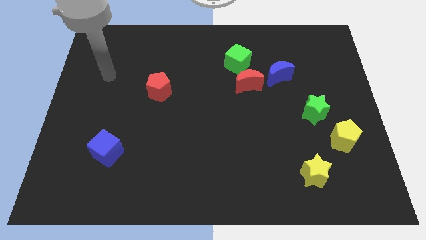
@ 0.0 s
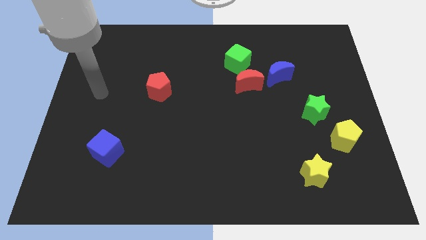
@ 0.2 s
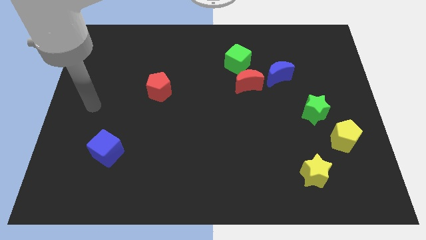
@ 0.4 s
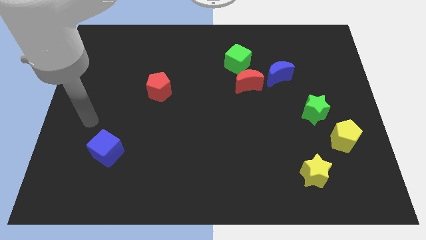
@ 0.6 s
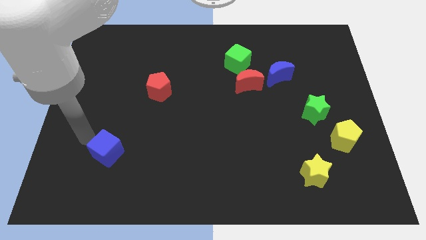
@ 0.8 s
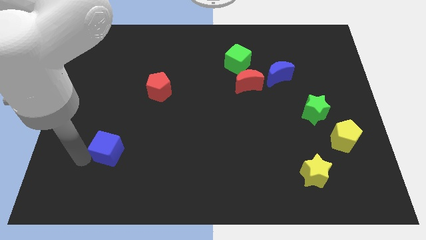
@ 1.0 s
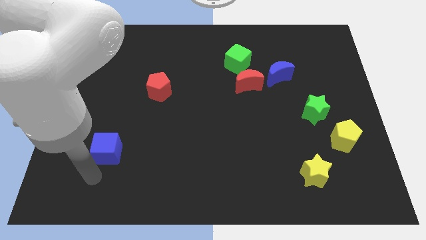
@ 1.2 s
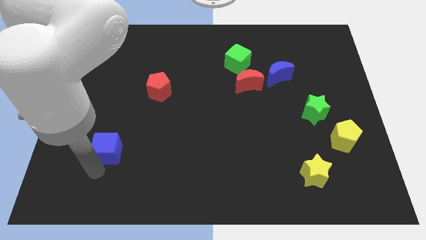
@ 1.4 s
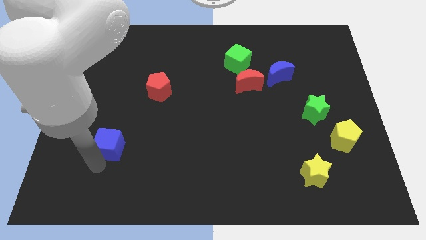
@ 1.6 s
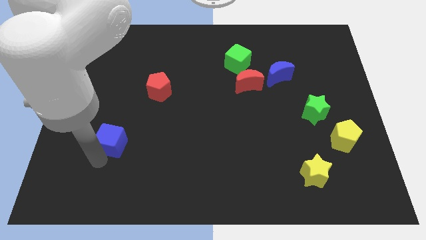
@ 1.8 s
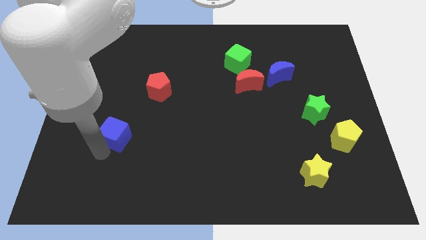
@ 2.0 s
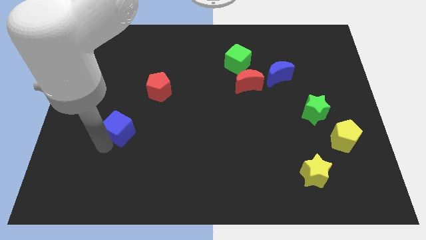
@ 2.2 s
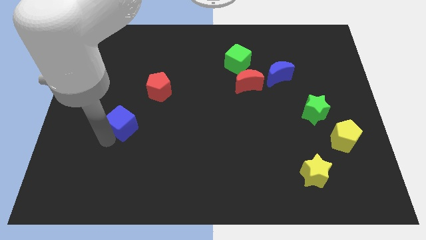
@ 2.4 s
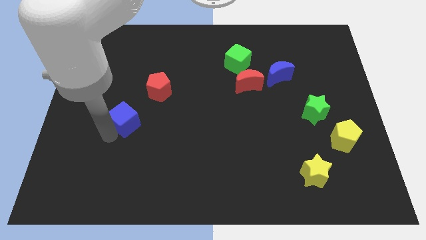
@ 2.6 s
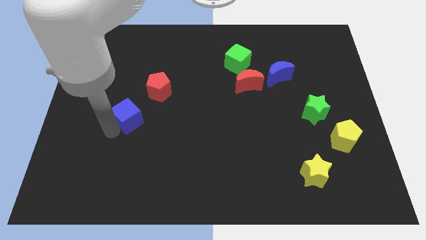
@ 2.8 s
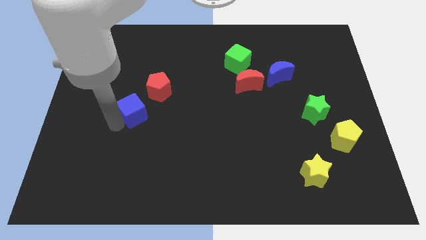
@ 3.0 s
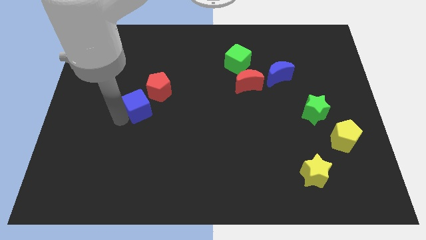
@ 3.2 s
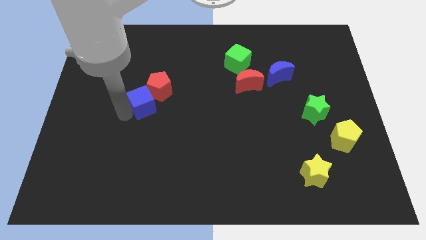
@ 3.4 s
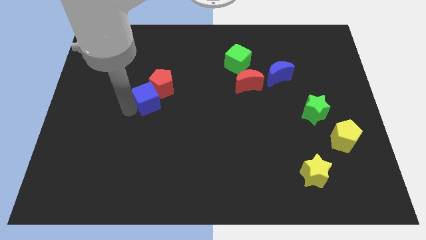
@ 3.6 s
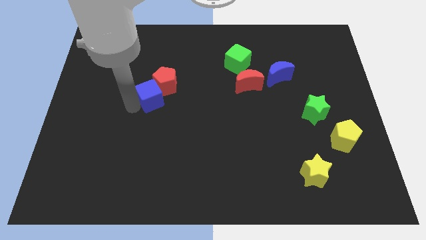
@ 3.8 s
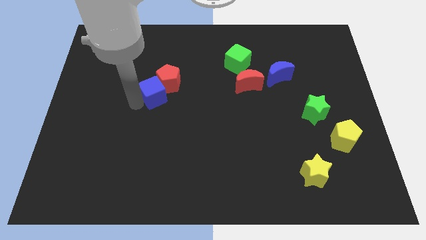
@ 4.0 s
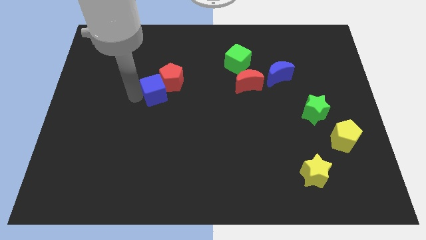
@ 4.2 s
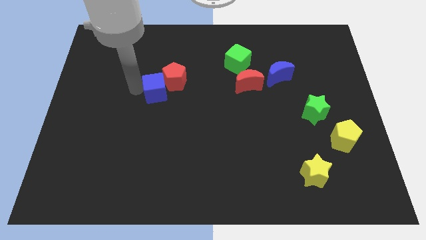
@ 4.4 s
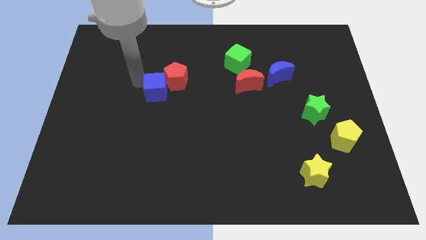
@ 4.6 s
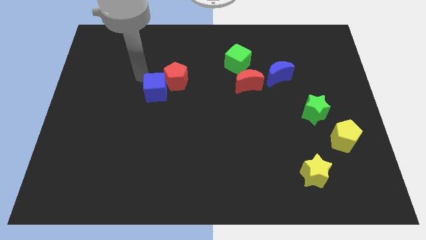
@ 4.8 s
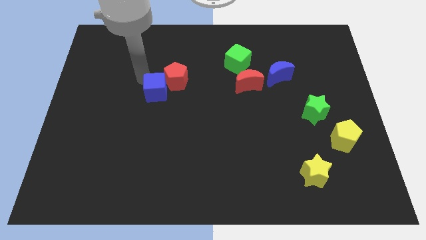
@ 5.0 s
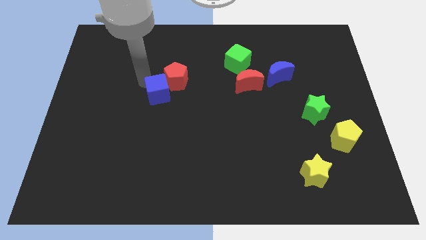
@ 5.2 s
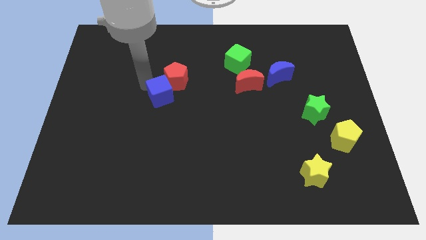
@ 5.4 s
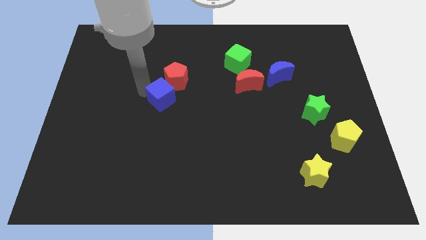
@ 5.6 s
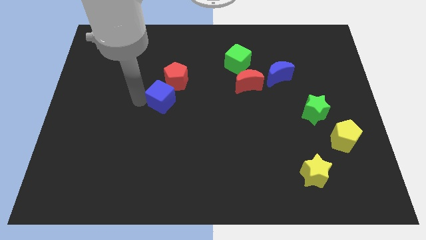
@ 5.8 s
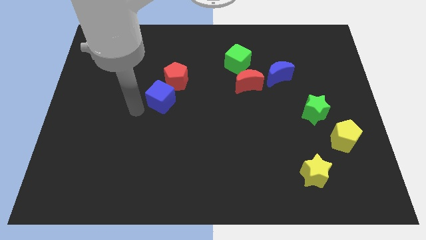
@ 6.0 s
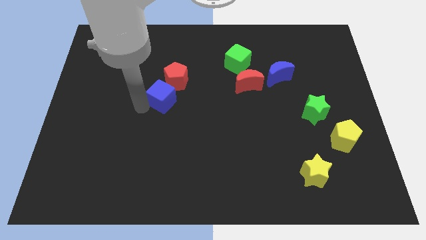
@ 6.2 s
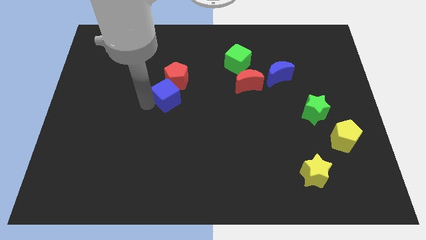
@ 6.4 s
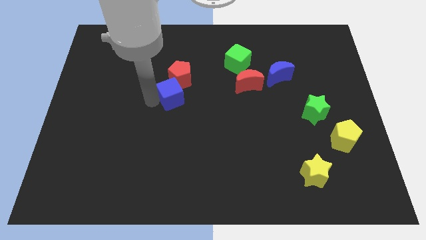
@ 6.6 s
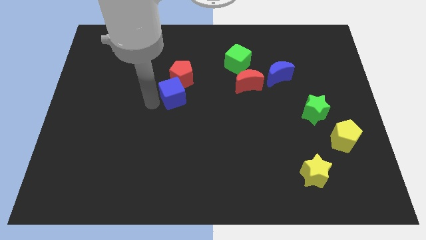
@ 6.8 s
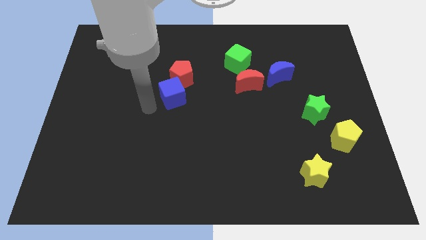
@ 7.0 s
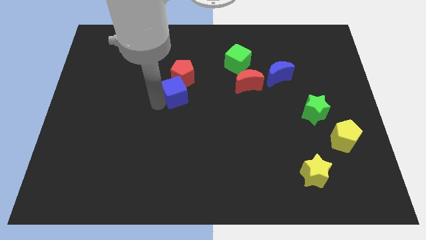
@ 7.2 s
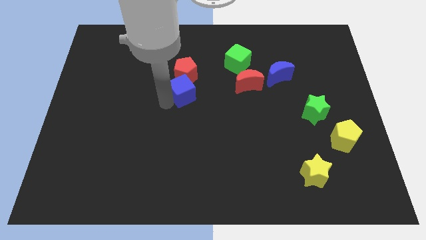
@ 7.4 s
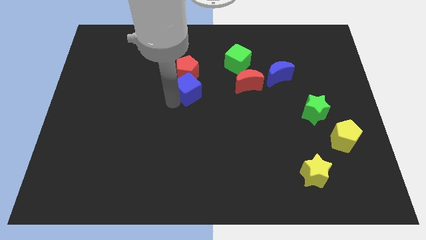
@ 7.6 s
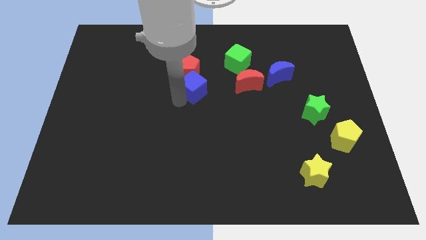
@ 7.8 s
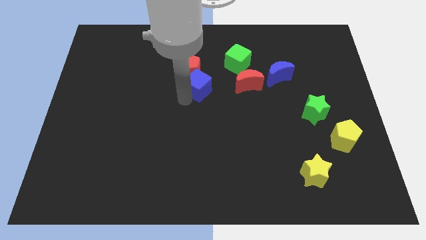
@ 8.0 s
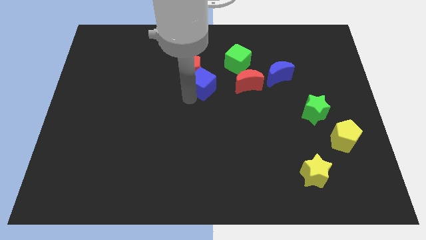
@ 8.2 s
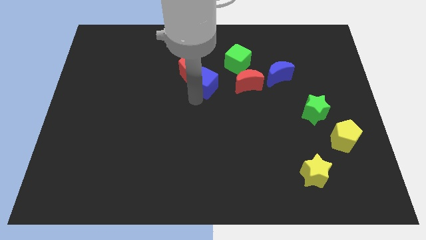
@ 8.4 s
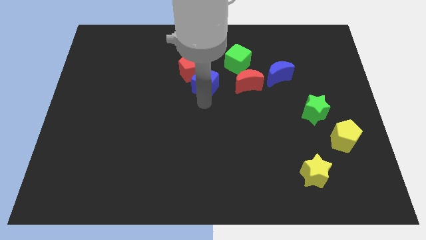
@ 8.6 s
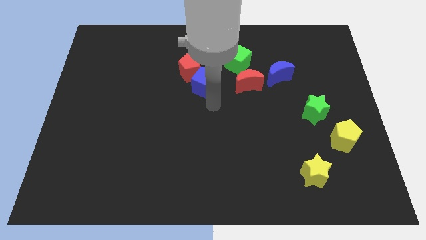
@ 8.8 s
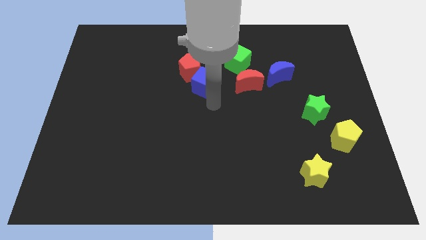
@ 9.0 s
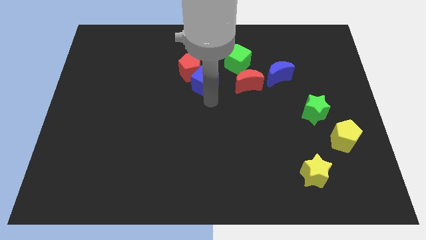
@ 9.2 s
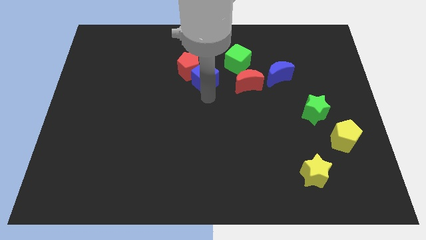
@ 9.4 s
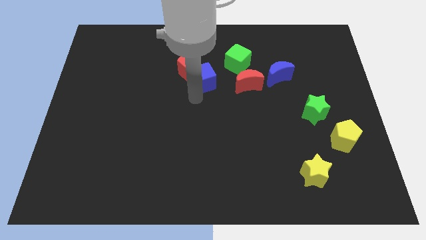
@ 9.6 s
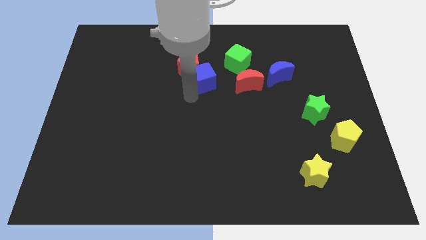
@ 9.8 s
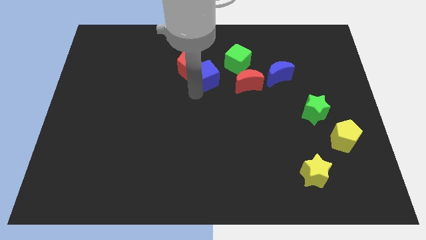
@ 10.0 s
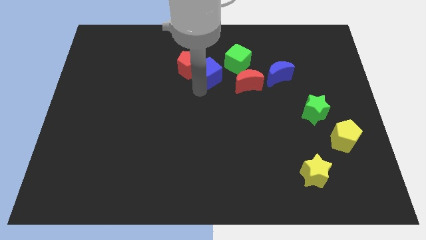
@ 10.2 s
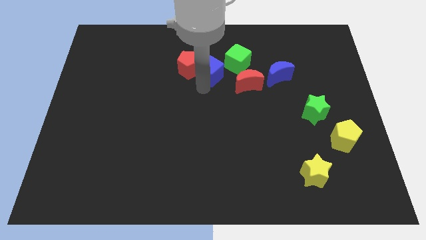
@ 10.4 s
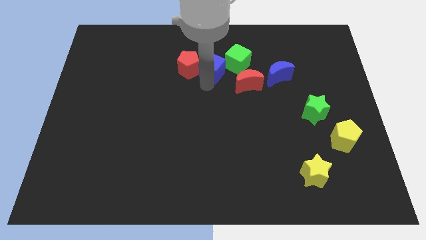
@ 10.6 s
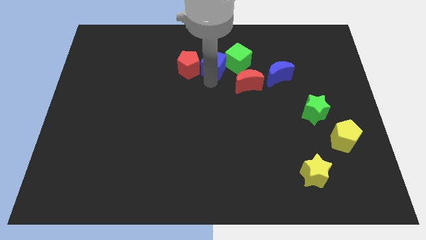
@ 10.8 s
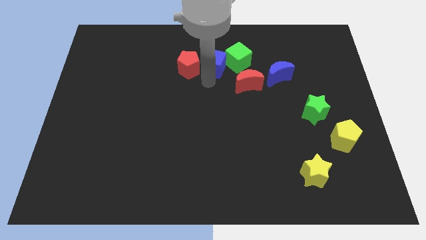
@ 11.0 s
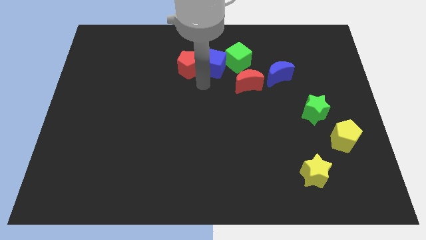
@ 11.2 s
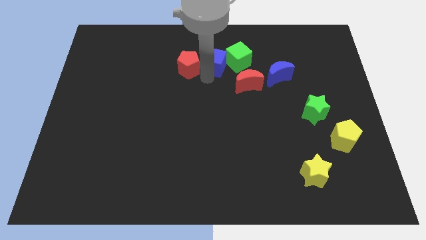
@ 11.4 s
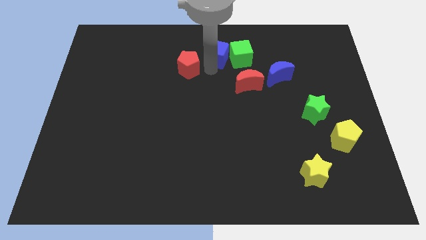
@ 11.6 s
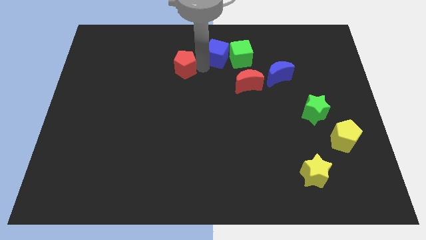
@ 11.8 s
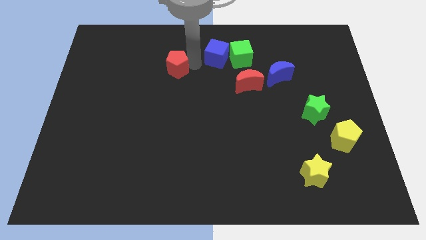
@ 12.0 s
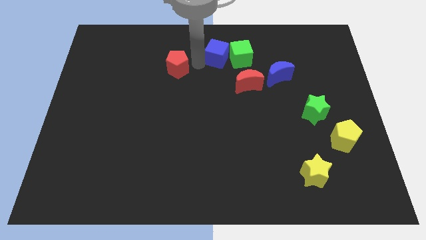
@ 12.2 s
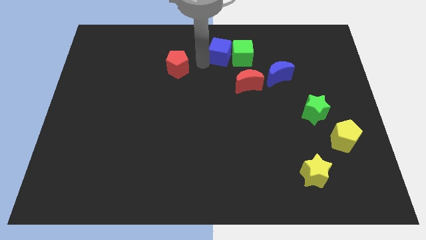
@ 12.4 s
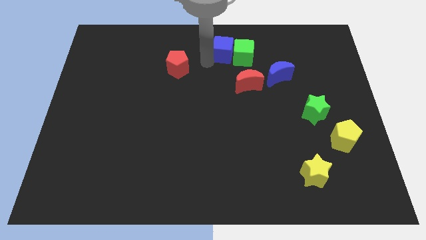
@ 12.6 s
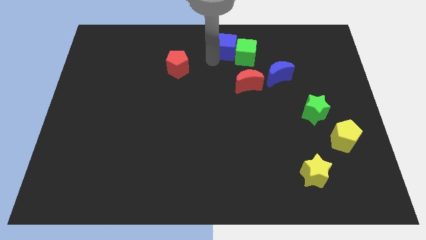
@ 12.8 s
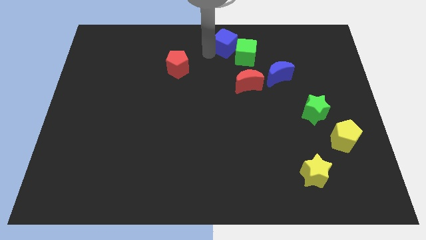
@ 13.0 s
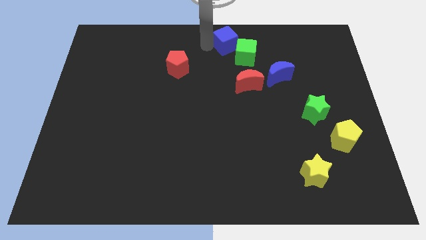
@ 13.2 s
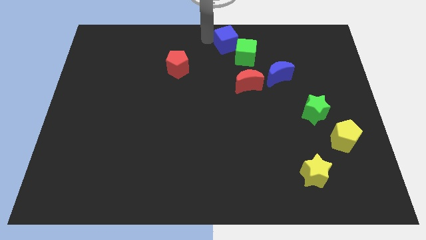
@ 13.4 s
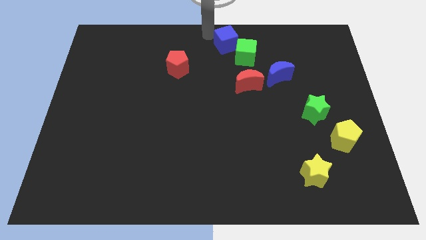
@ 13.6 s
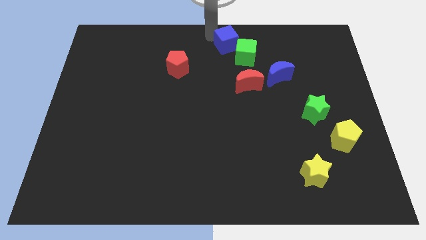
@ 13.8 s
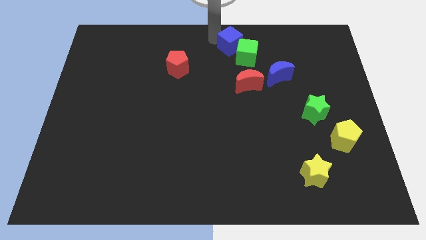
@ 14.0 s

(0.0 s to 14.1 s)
slide the blue cube to the top of the red moon

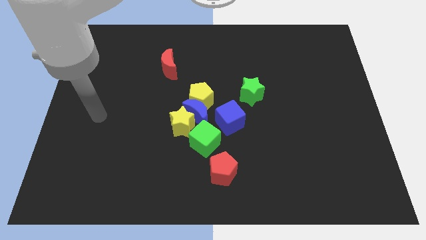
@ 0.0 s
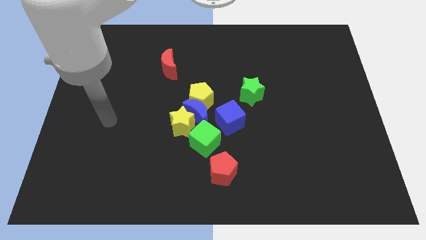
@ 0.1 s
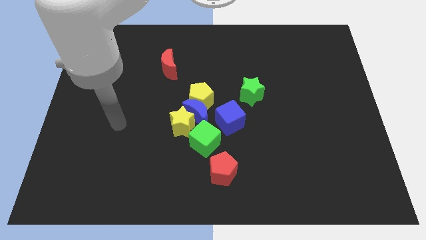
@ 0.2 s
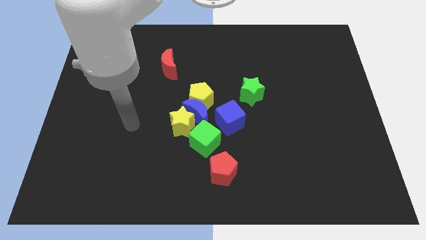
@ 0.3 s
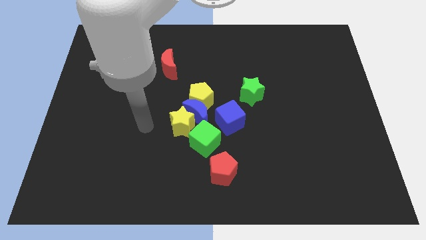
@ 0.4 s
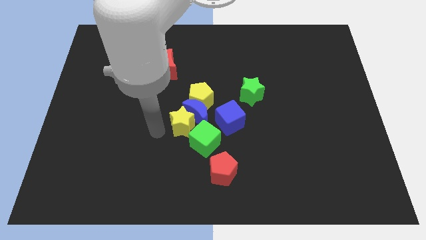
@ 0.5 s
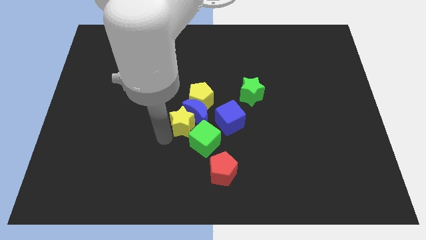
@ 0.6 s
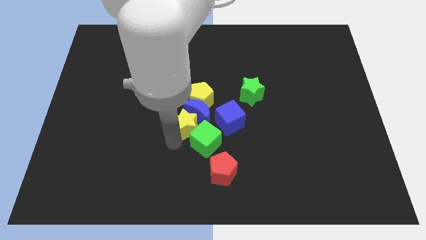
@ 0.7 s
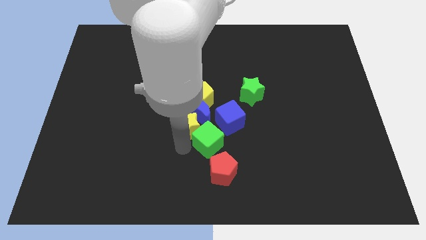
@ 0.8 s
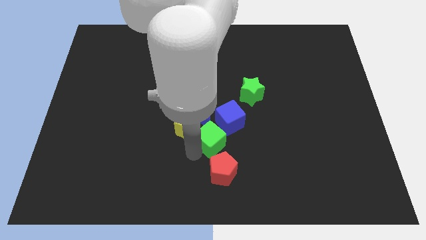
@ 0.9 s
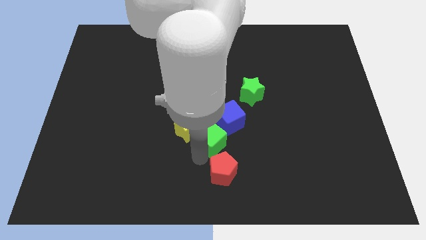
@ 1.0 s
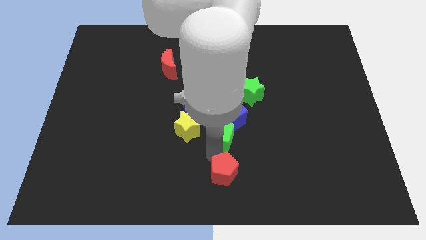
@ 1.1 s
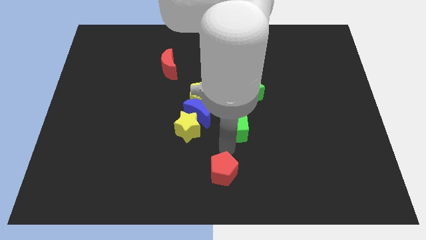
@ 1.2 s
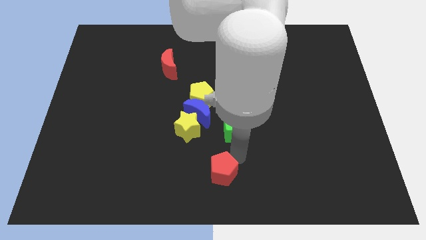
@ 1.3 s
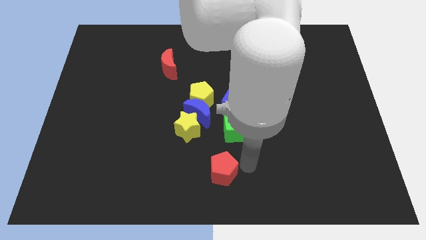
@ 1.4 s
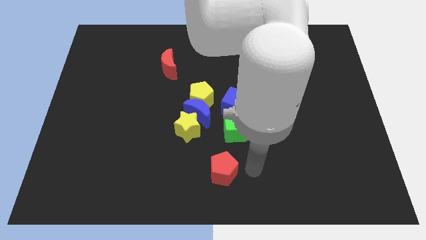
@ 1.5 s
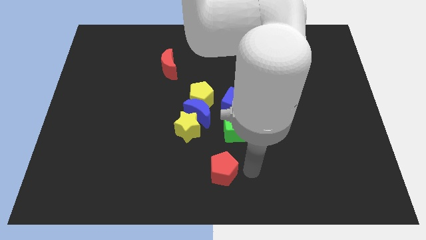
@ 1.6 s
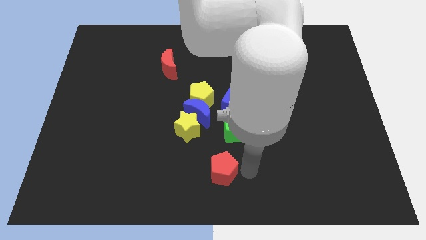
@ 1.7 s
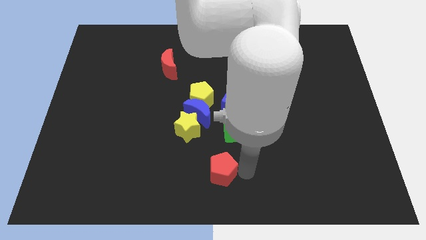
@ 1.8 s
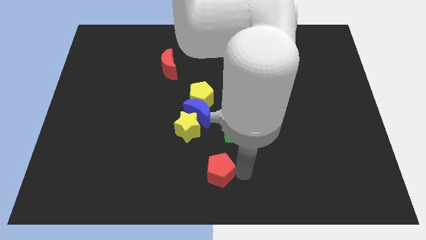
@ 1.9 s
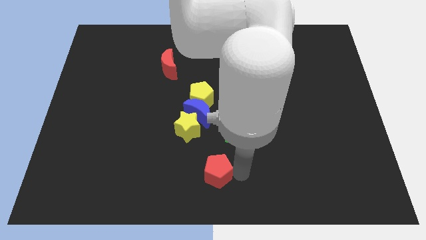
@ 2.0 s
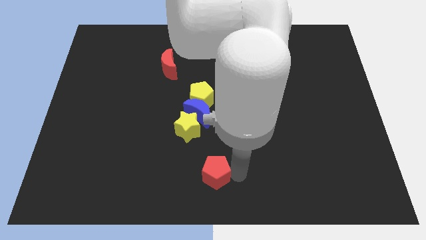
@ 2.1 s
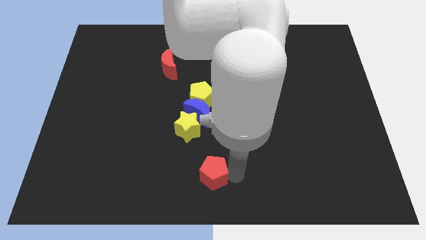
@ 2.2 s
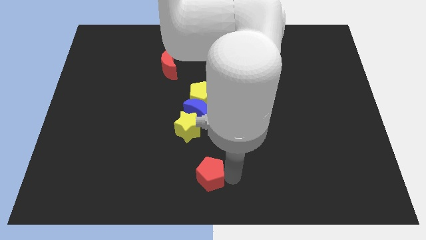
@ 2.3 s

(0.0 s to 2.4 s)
slide the red pentagon to the bottom side of the yellow star
